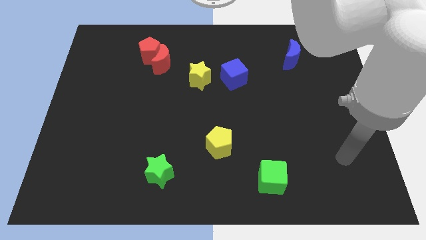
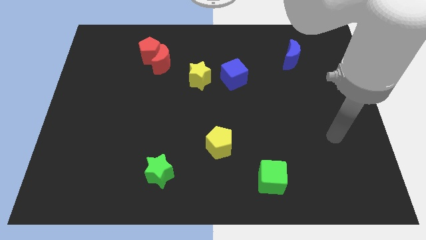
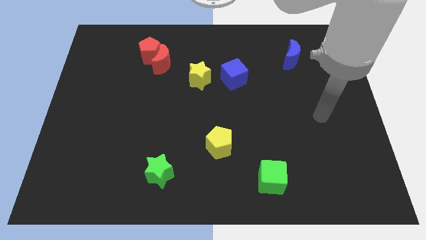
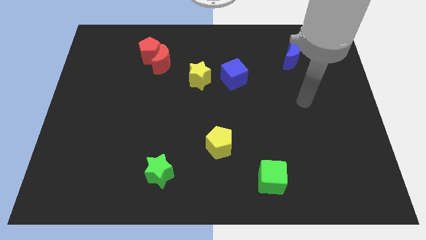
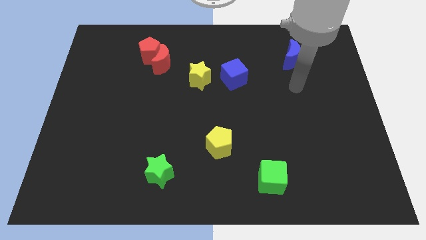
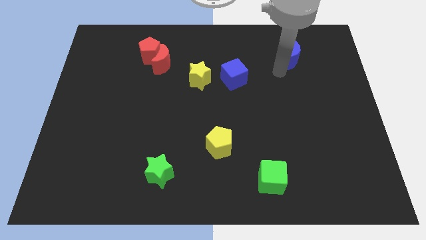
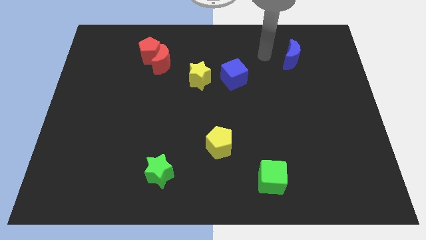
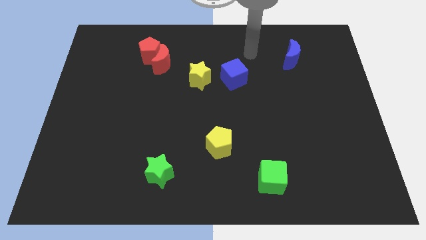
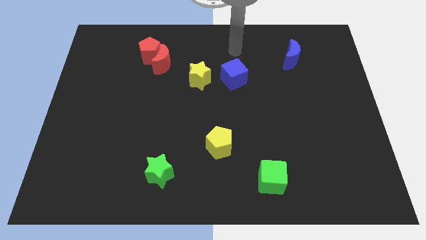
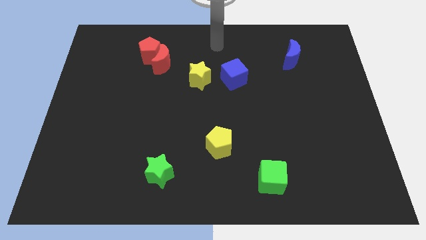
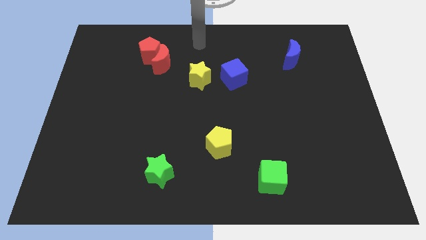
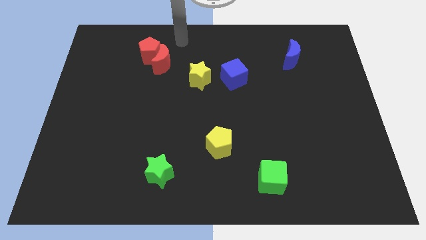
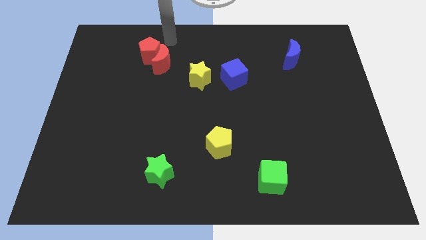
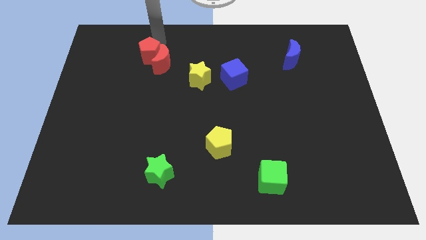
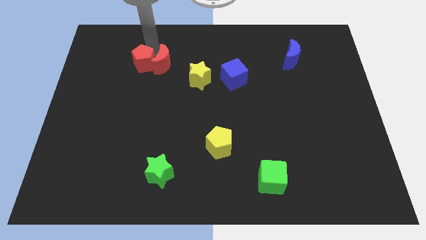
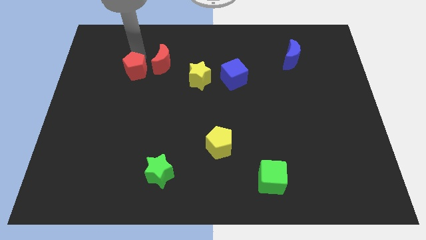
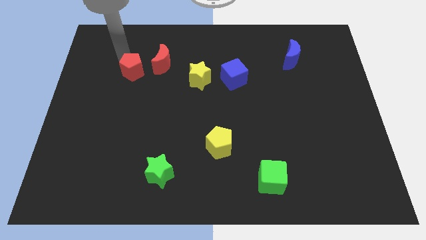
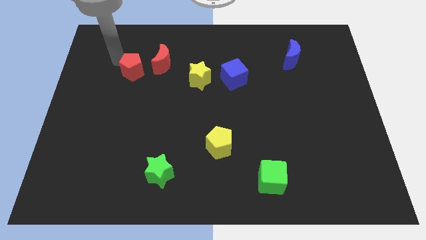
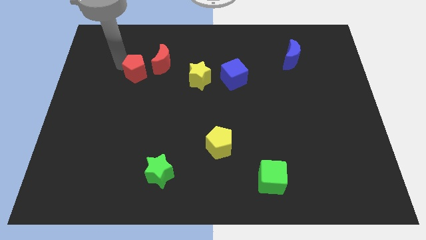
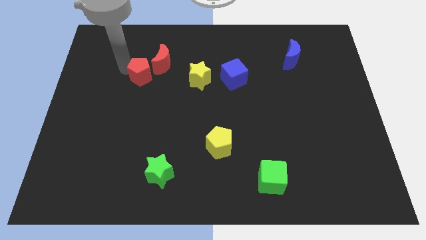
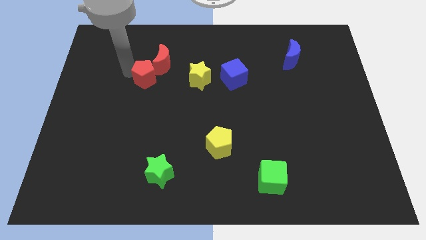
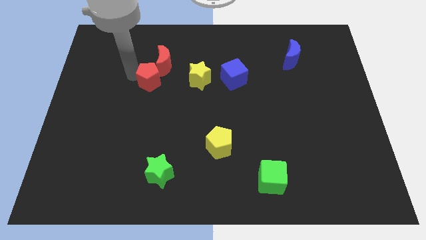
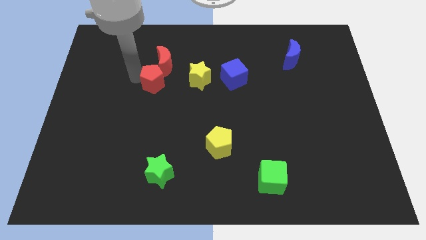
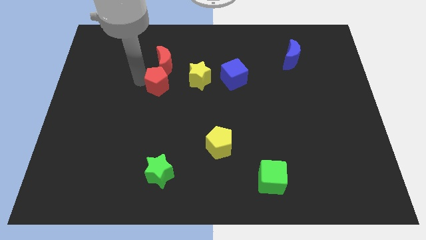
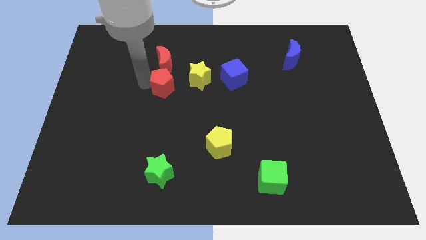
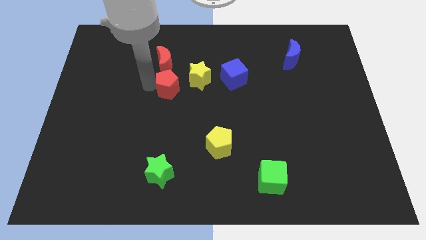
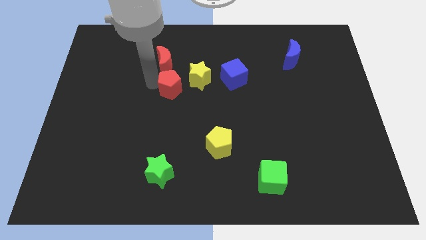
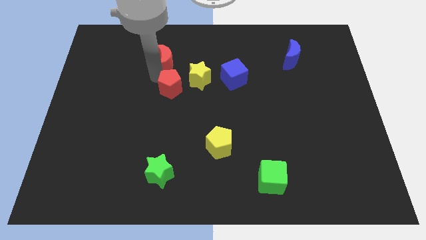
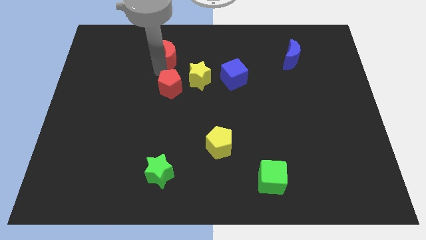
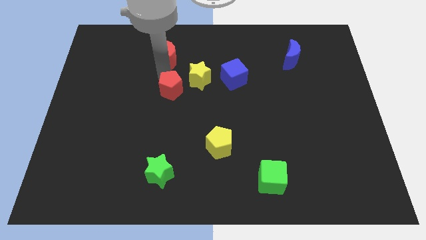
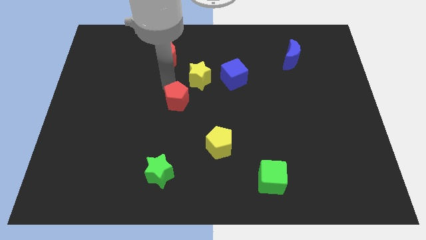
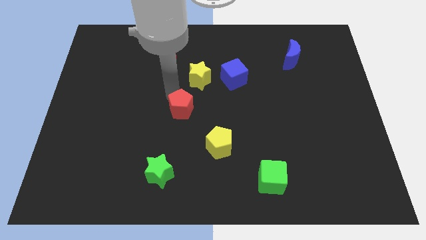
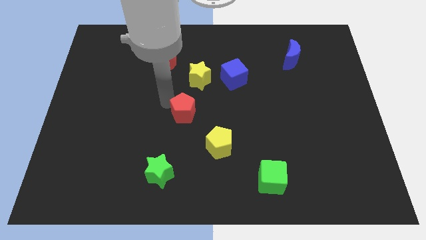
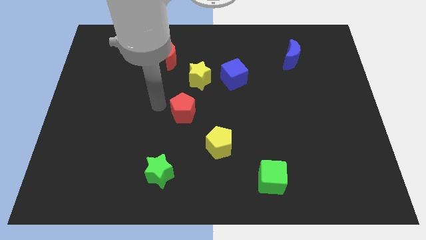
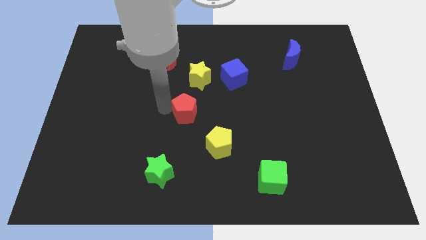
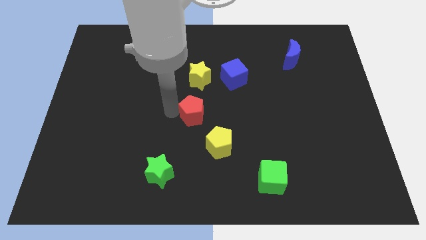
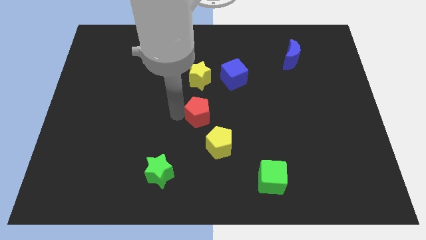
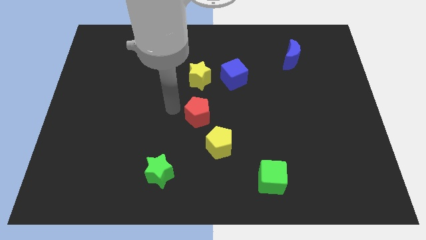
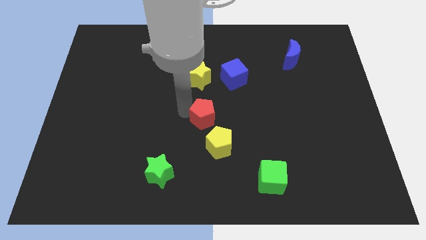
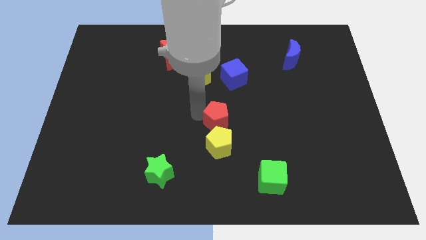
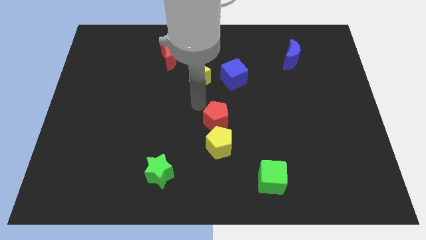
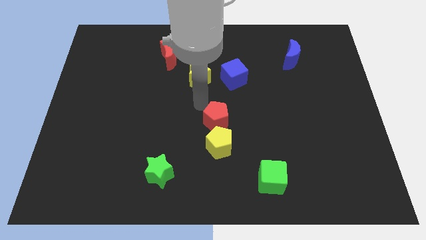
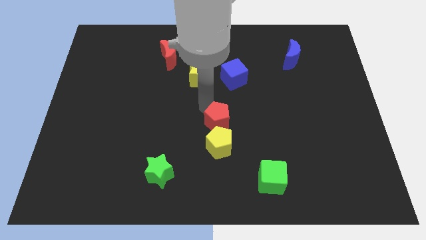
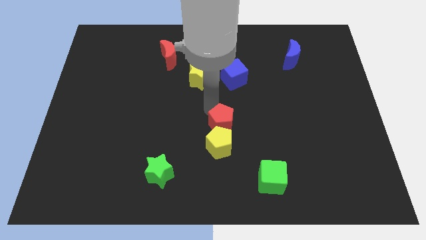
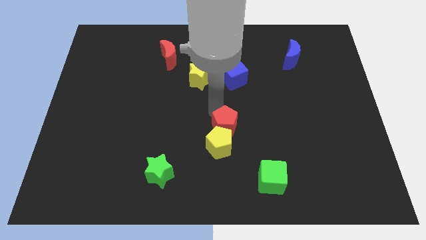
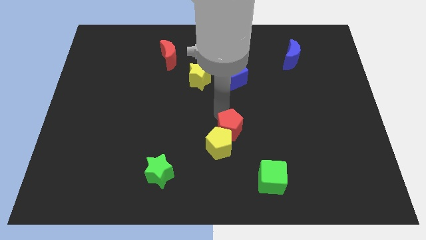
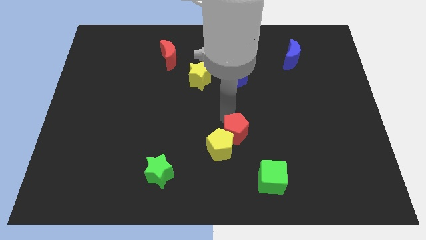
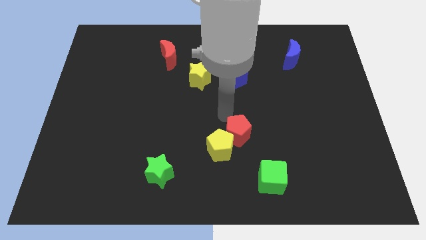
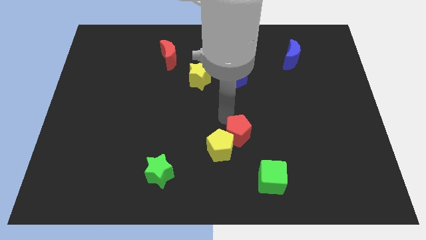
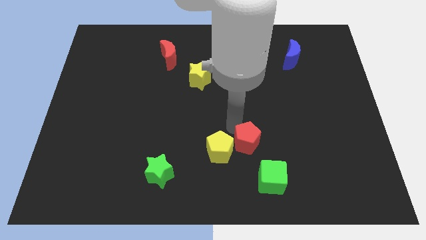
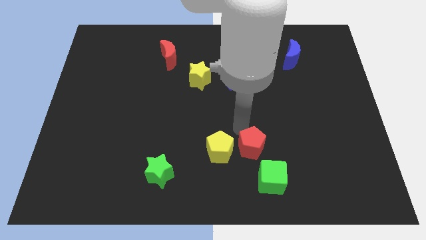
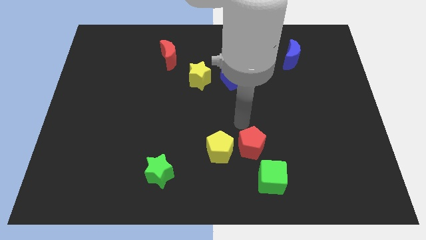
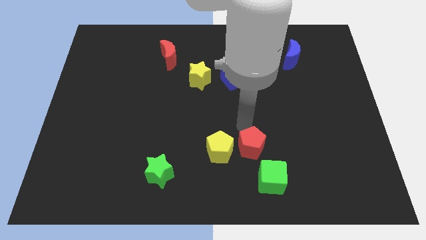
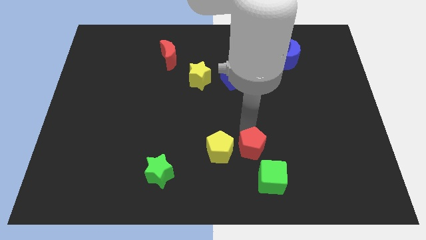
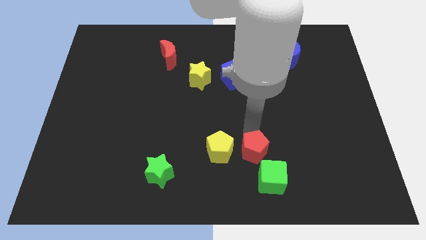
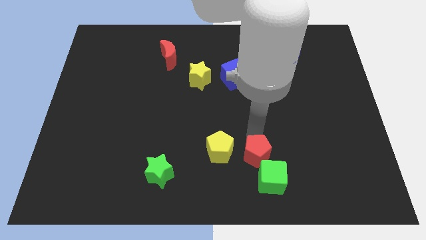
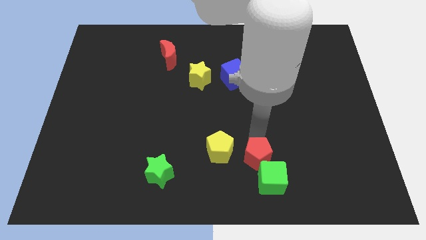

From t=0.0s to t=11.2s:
put the red pentagon to the green cube
